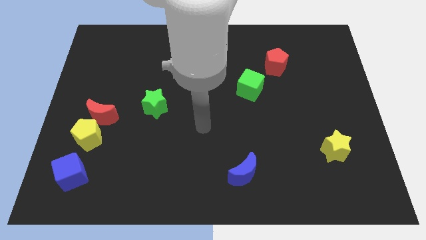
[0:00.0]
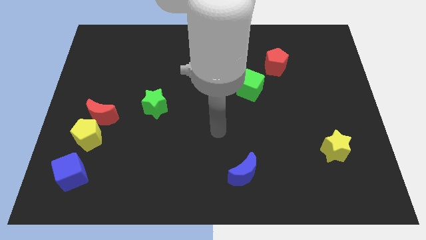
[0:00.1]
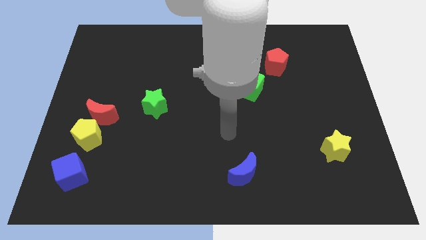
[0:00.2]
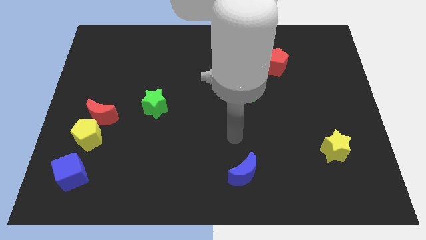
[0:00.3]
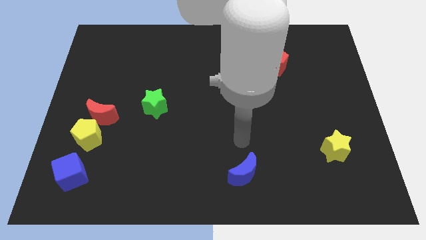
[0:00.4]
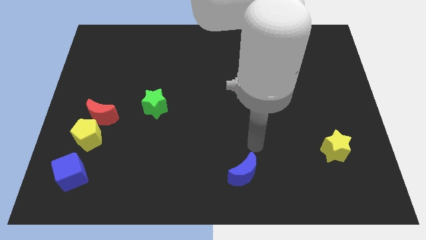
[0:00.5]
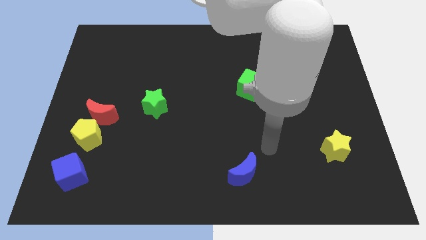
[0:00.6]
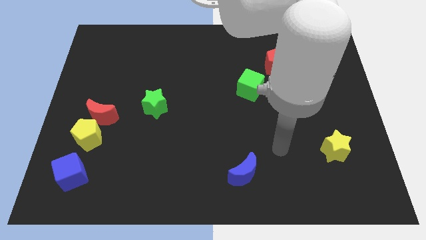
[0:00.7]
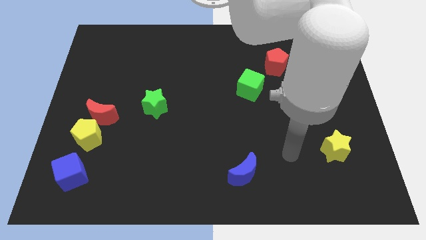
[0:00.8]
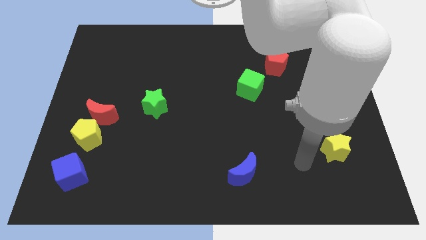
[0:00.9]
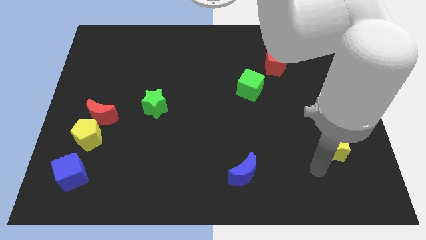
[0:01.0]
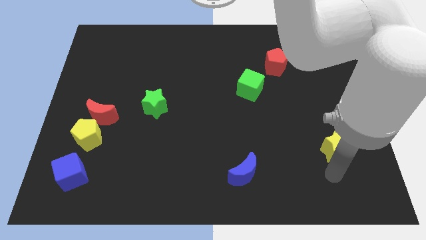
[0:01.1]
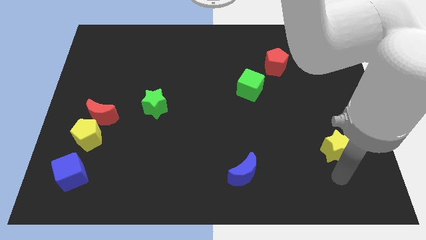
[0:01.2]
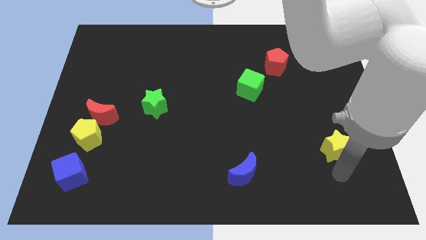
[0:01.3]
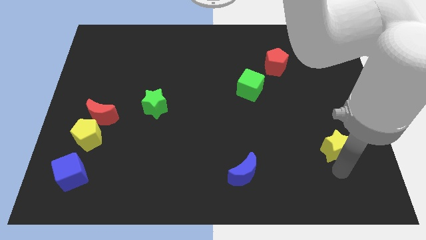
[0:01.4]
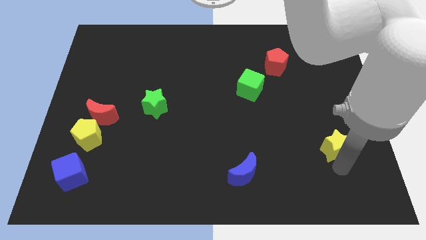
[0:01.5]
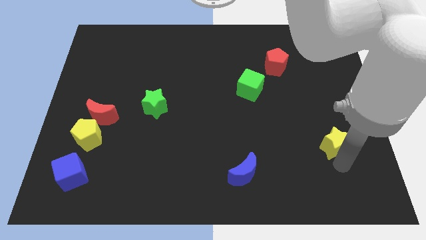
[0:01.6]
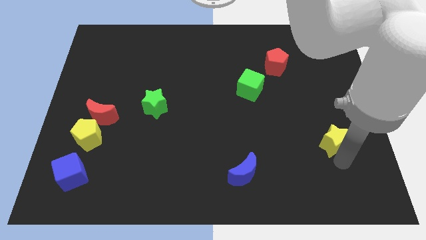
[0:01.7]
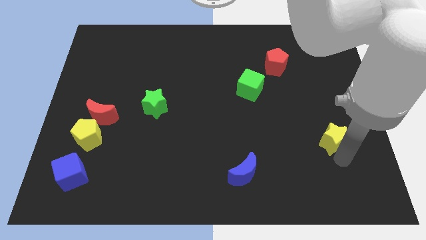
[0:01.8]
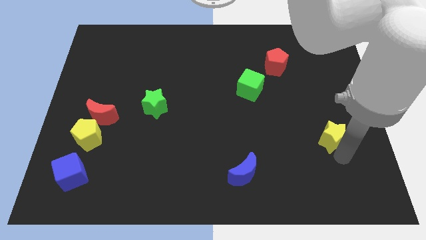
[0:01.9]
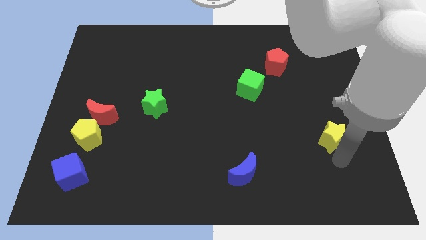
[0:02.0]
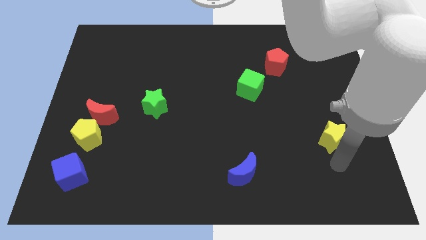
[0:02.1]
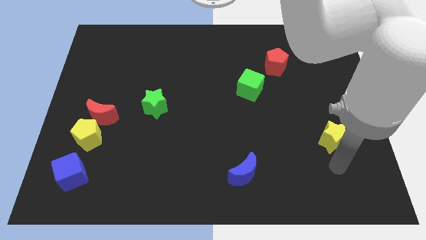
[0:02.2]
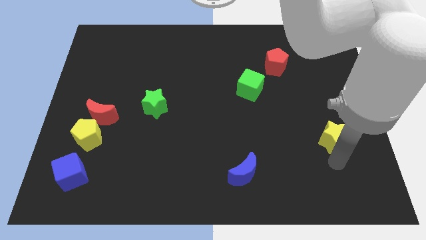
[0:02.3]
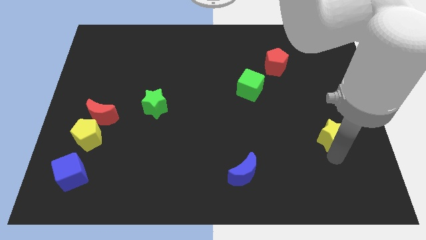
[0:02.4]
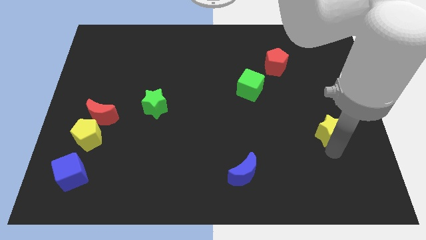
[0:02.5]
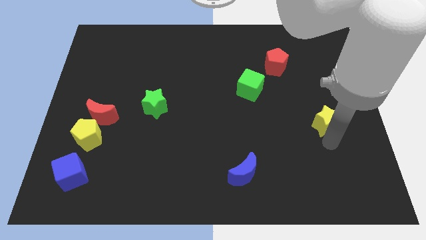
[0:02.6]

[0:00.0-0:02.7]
move the yellow star up slightly

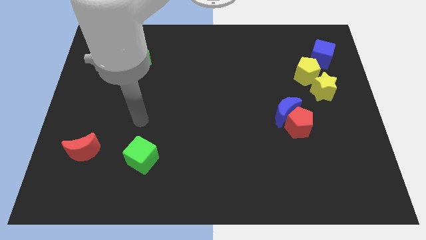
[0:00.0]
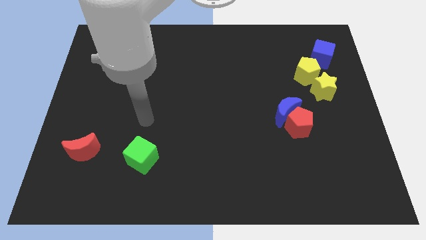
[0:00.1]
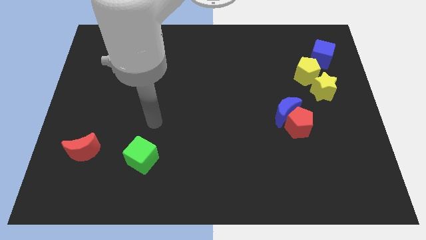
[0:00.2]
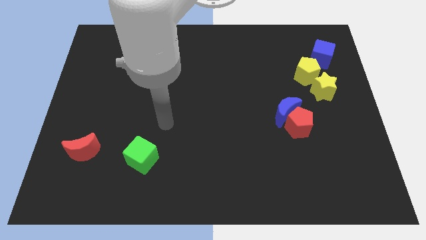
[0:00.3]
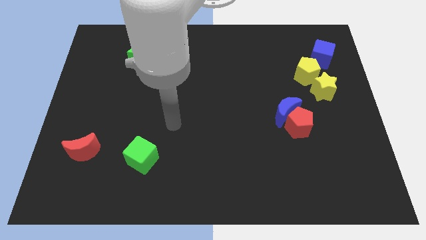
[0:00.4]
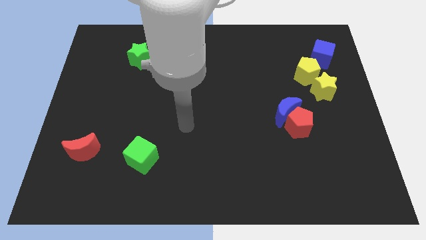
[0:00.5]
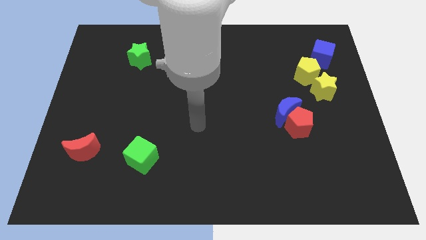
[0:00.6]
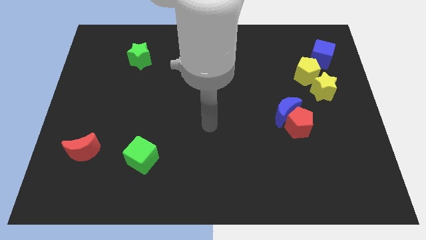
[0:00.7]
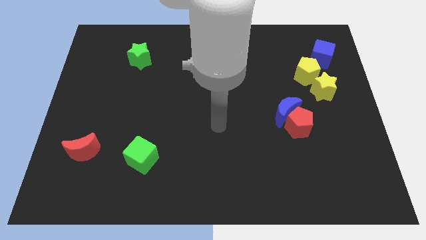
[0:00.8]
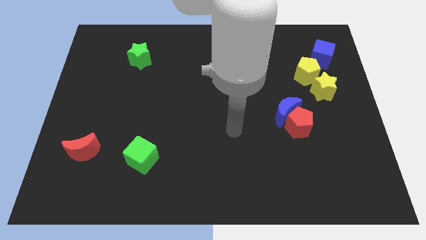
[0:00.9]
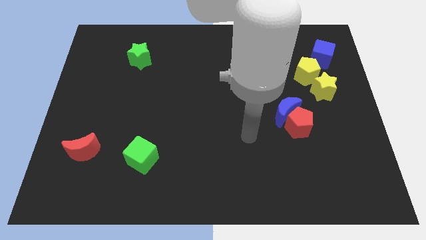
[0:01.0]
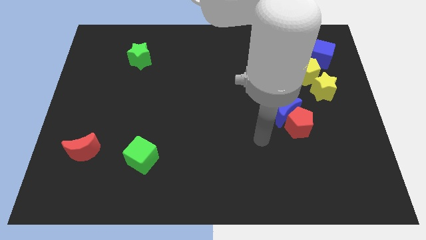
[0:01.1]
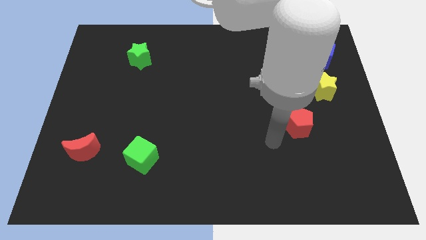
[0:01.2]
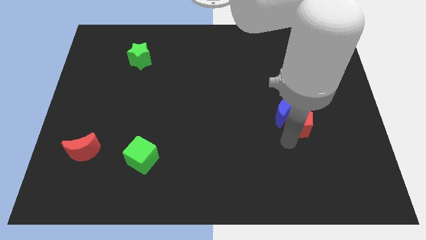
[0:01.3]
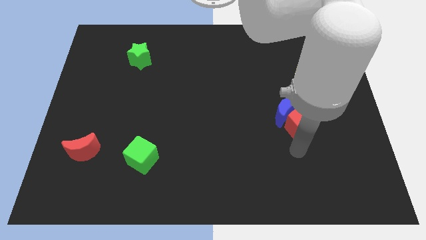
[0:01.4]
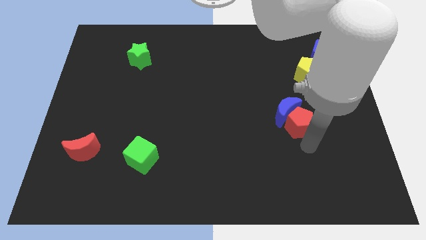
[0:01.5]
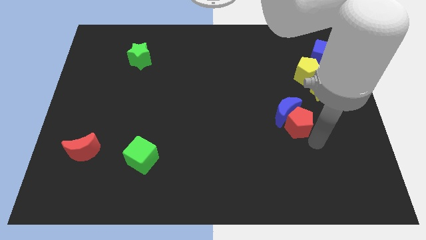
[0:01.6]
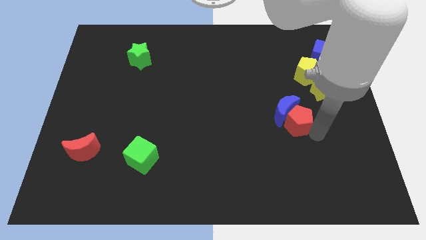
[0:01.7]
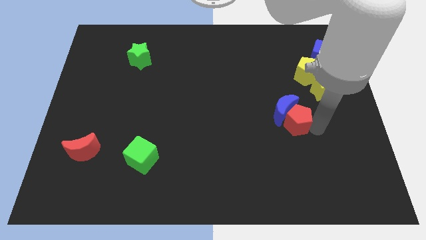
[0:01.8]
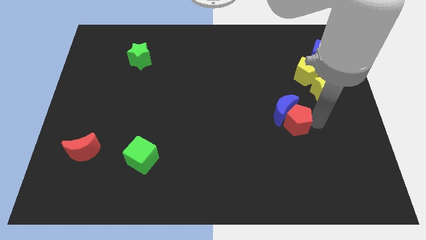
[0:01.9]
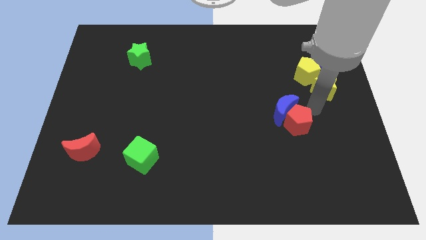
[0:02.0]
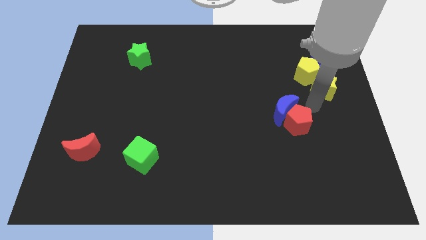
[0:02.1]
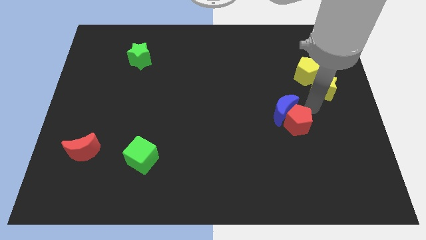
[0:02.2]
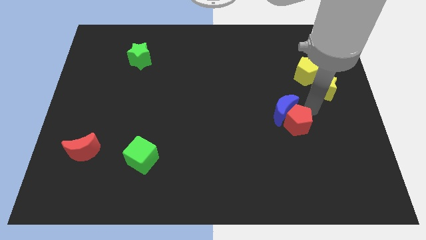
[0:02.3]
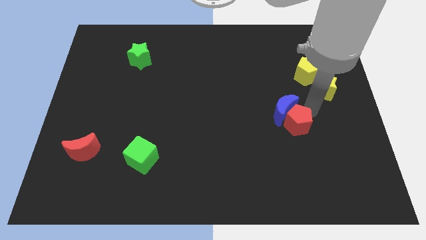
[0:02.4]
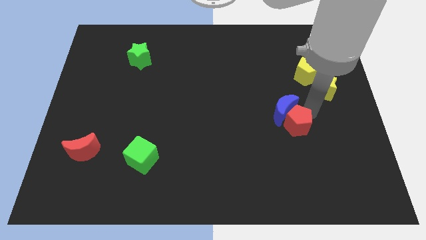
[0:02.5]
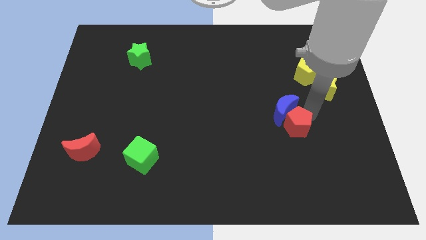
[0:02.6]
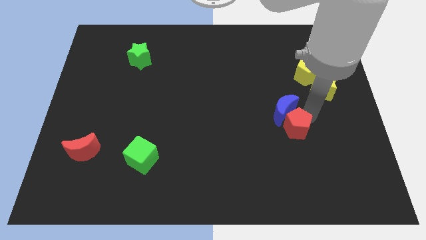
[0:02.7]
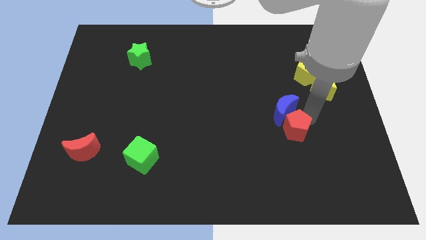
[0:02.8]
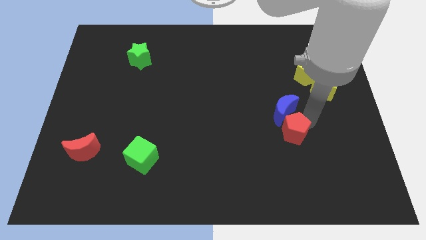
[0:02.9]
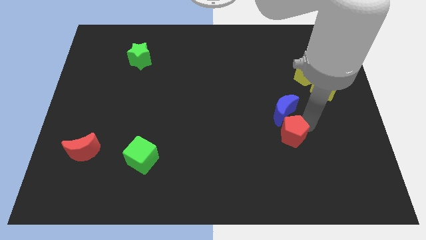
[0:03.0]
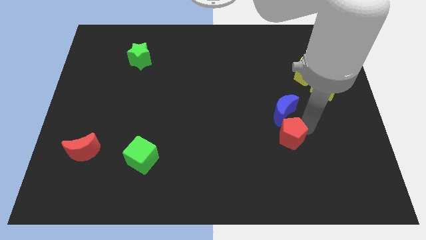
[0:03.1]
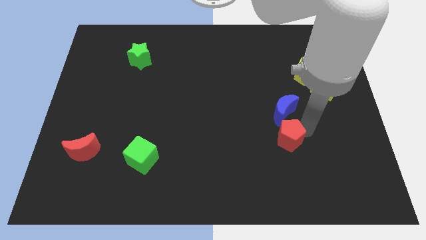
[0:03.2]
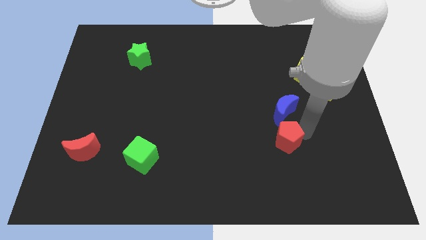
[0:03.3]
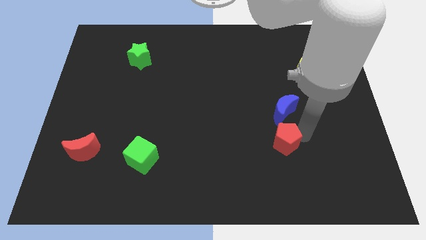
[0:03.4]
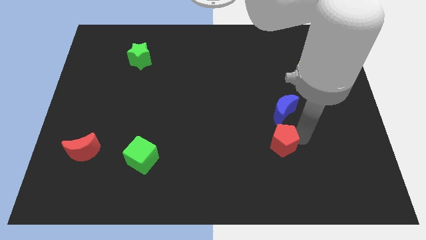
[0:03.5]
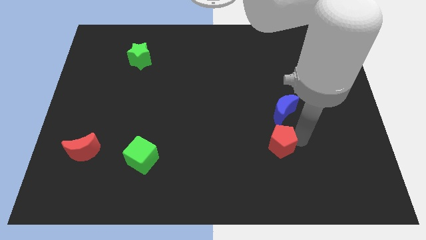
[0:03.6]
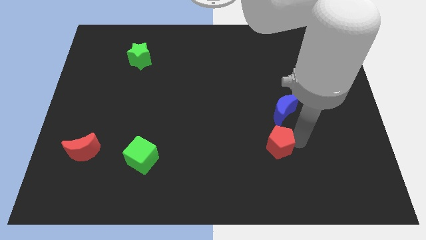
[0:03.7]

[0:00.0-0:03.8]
push the red pentagon down and then to the left slightly

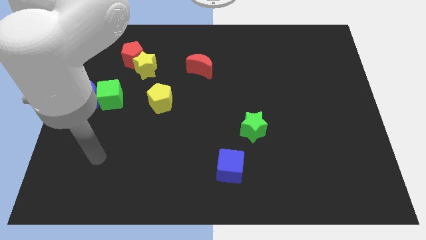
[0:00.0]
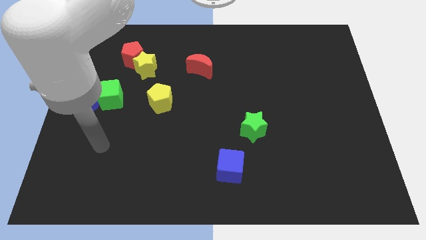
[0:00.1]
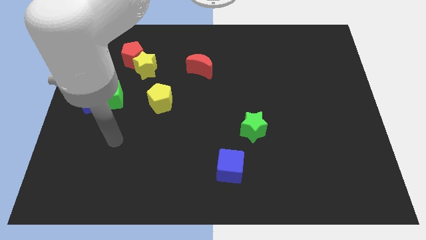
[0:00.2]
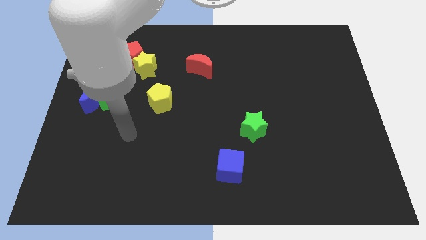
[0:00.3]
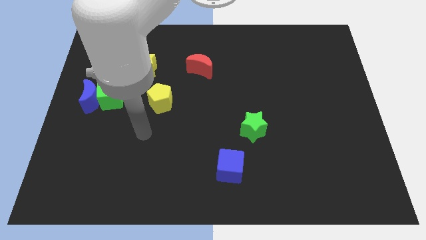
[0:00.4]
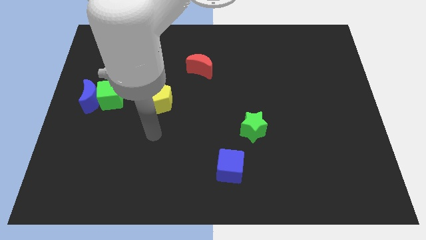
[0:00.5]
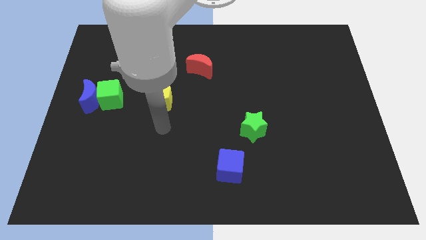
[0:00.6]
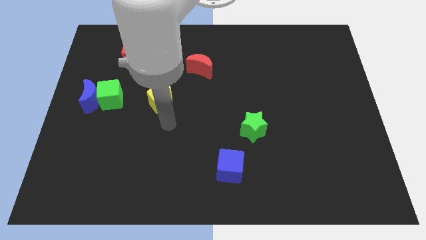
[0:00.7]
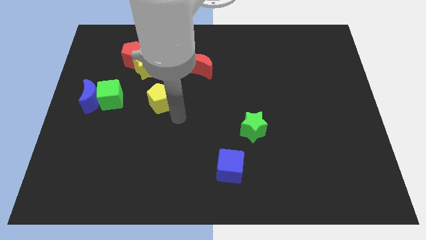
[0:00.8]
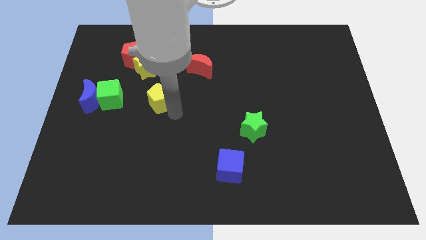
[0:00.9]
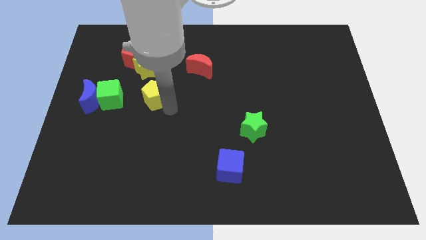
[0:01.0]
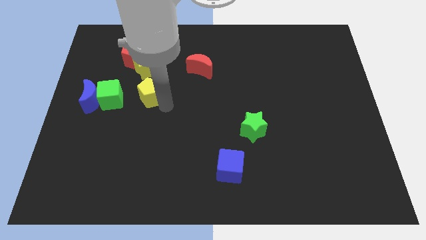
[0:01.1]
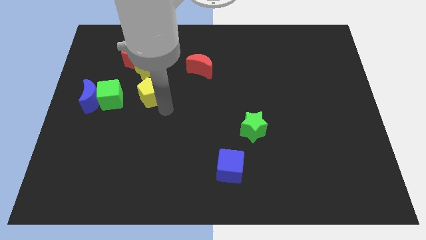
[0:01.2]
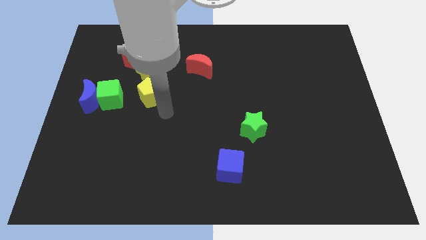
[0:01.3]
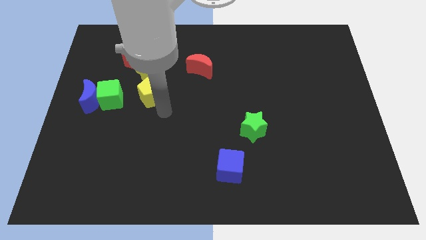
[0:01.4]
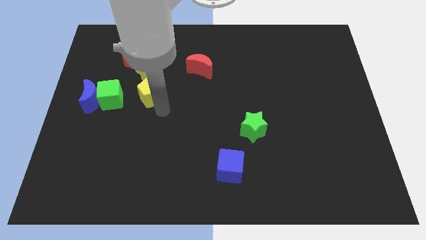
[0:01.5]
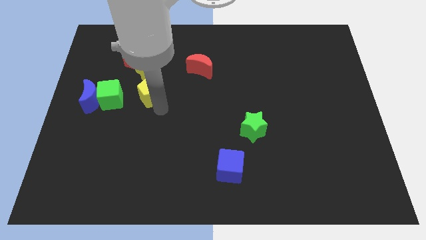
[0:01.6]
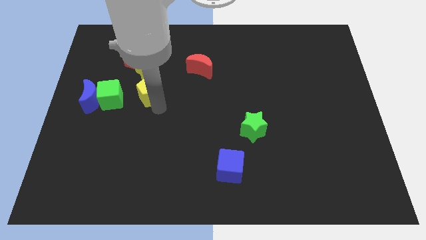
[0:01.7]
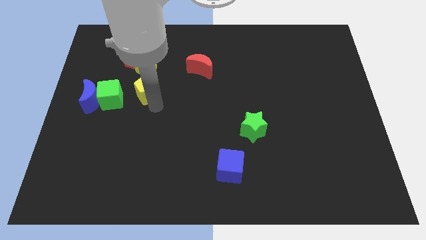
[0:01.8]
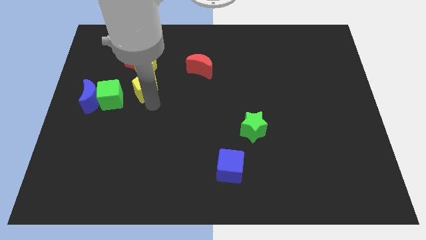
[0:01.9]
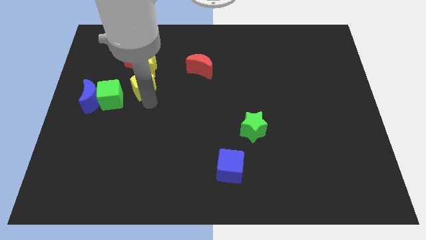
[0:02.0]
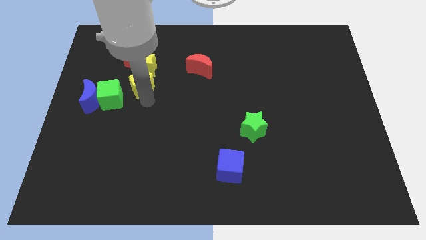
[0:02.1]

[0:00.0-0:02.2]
slightly move the yellow pentagon upwards and then left
